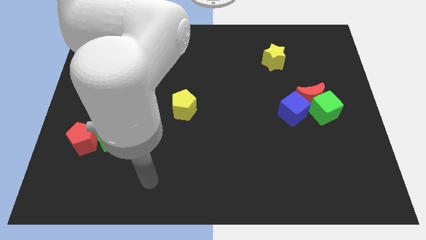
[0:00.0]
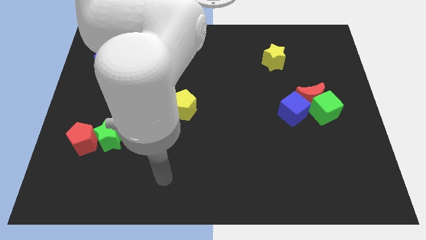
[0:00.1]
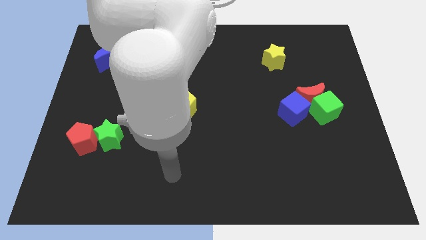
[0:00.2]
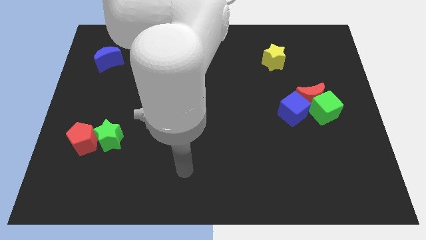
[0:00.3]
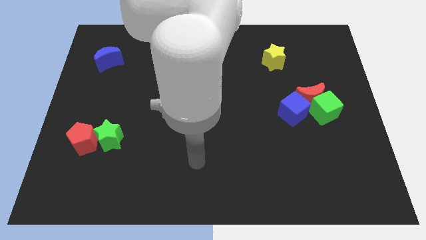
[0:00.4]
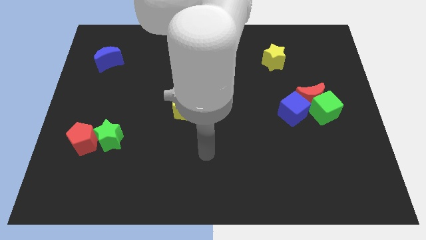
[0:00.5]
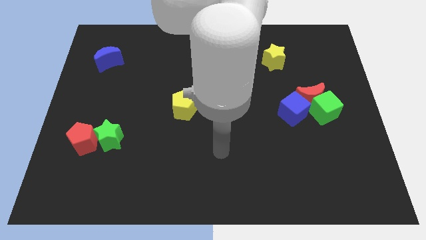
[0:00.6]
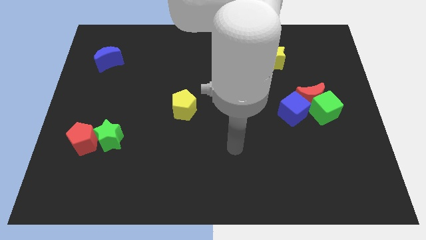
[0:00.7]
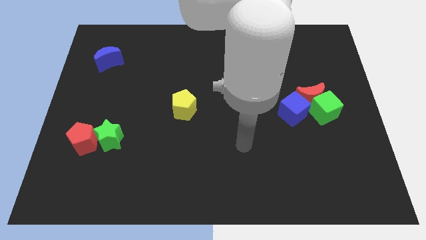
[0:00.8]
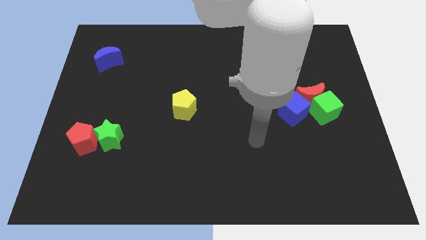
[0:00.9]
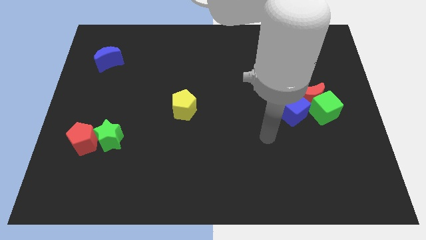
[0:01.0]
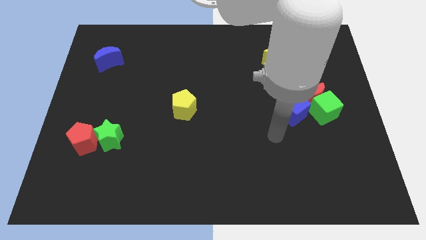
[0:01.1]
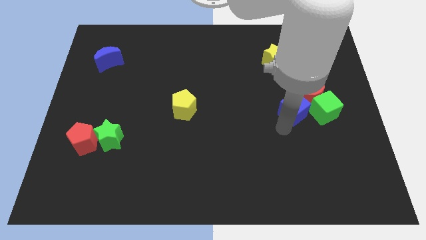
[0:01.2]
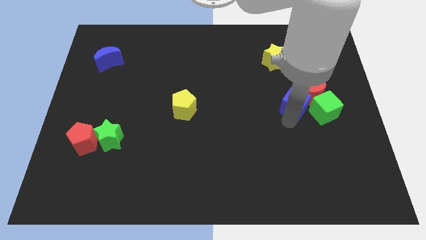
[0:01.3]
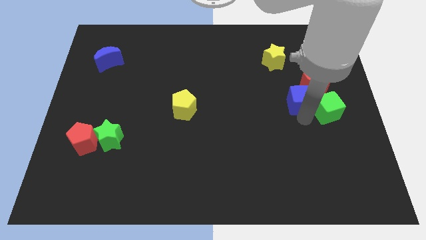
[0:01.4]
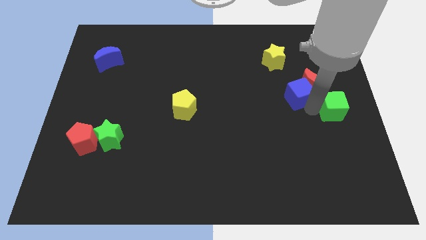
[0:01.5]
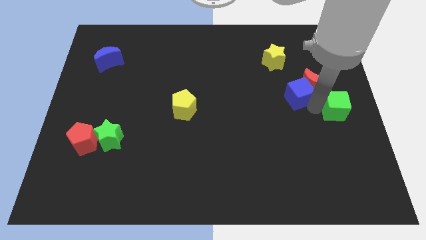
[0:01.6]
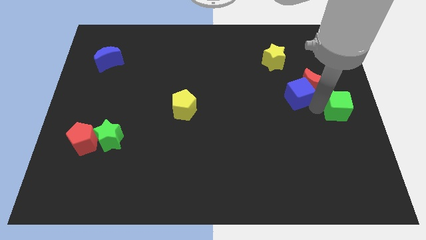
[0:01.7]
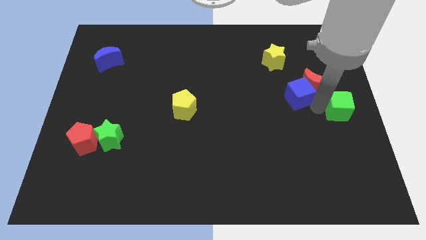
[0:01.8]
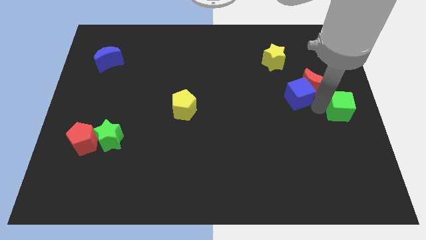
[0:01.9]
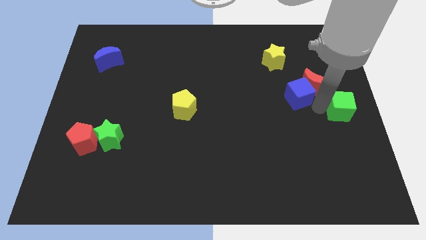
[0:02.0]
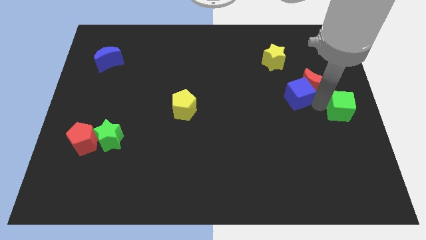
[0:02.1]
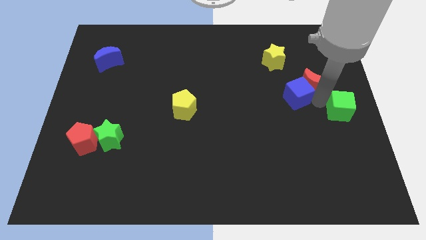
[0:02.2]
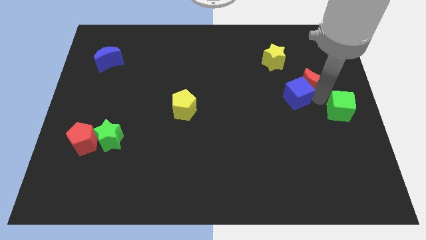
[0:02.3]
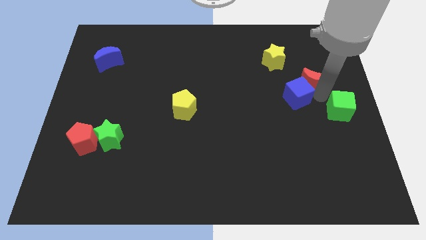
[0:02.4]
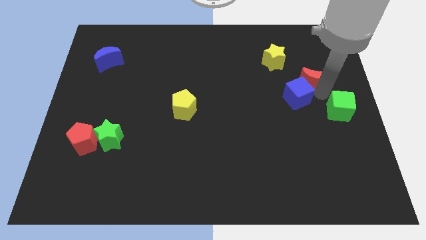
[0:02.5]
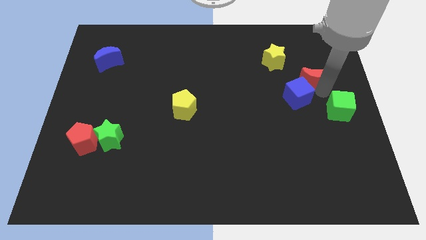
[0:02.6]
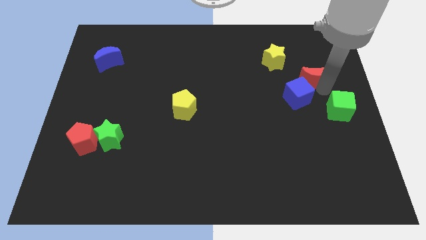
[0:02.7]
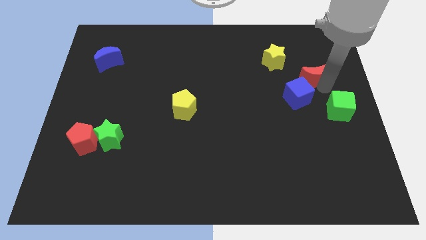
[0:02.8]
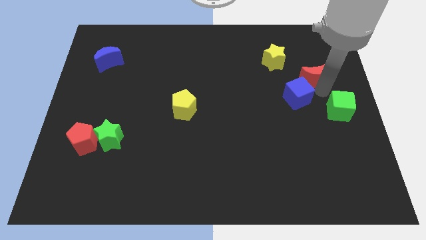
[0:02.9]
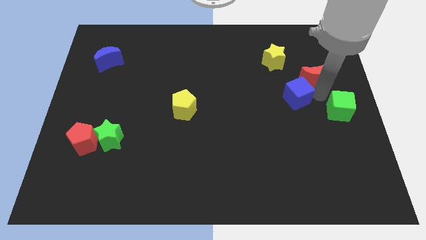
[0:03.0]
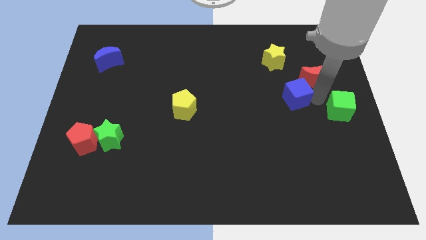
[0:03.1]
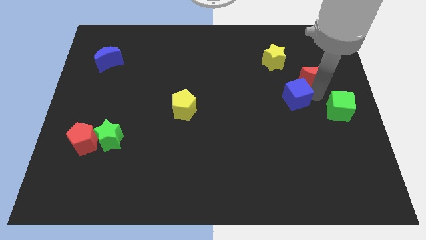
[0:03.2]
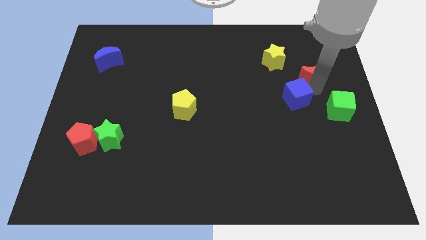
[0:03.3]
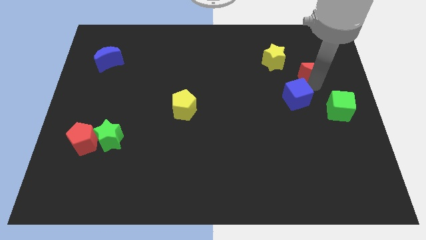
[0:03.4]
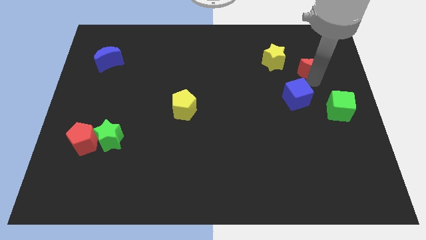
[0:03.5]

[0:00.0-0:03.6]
pull the red moon apart from the green cube and blue cube

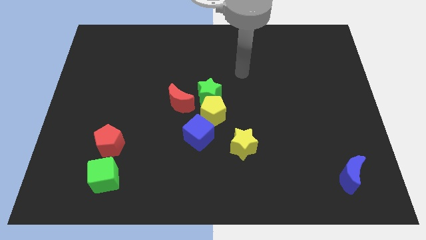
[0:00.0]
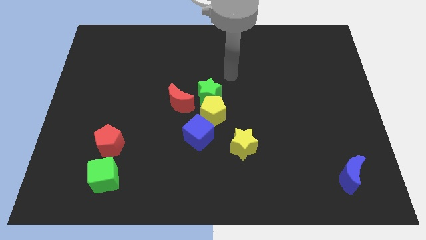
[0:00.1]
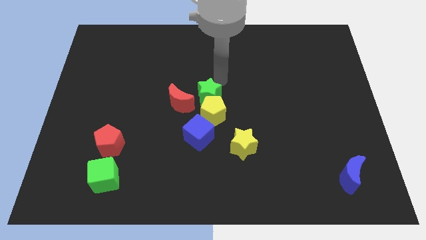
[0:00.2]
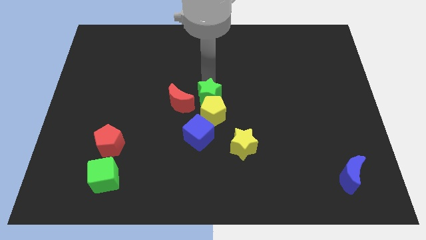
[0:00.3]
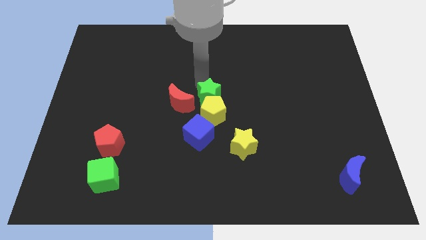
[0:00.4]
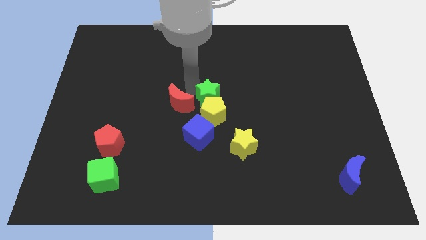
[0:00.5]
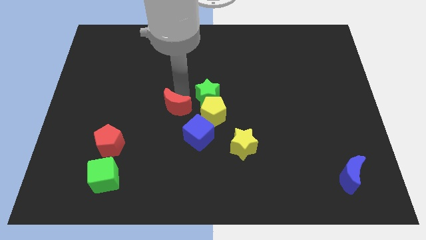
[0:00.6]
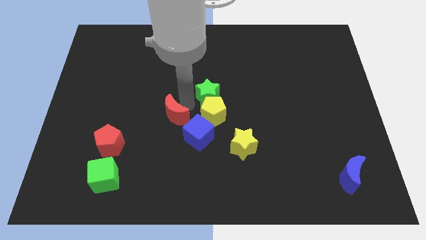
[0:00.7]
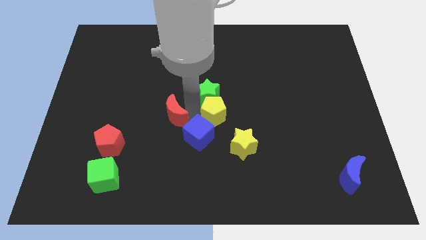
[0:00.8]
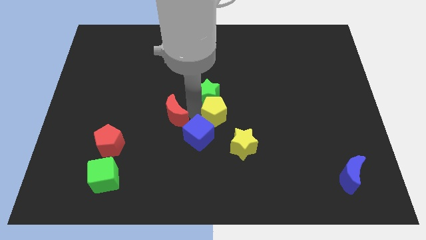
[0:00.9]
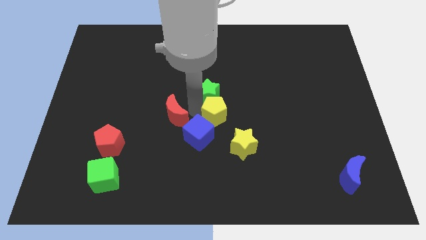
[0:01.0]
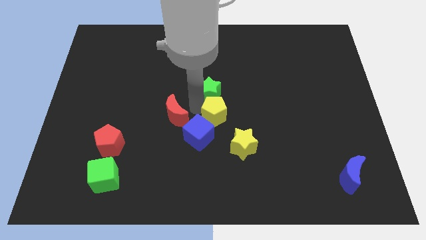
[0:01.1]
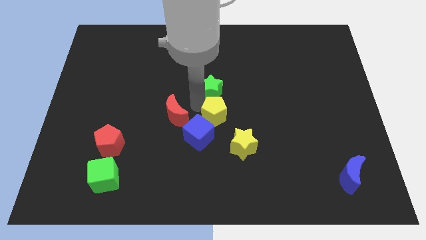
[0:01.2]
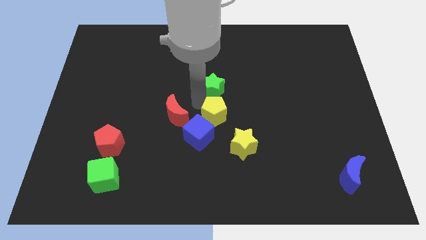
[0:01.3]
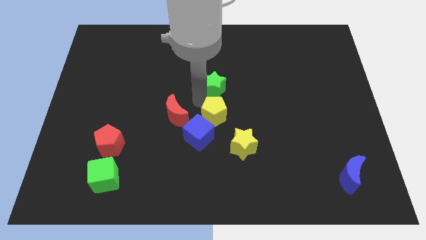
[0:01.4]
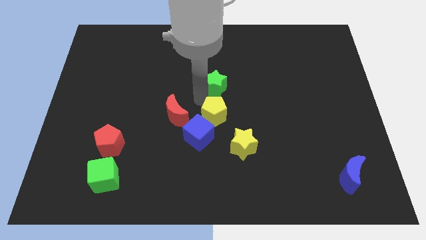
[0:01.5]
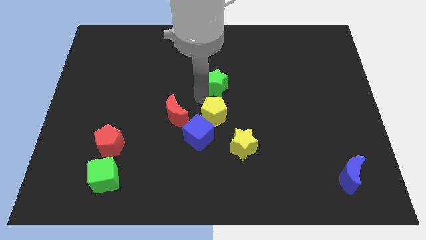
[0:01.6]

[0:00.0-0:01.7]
pull the green star apart from the yellow pentagon and red moon

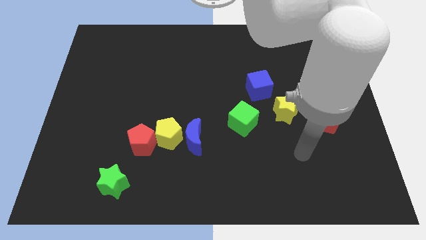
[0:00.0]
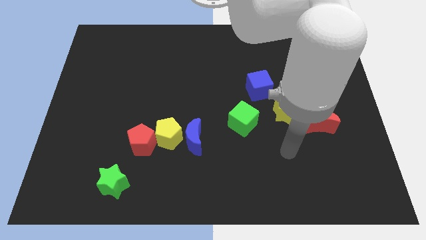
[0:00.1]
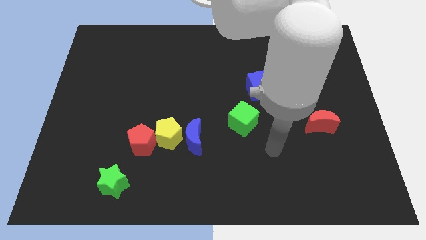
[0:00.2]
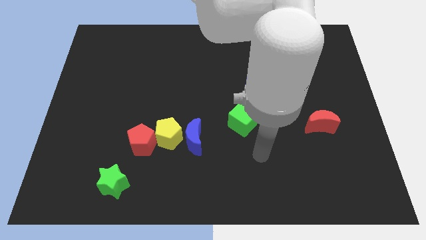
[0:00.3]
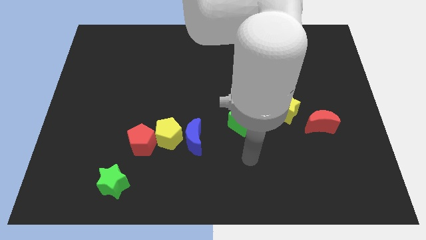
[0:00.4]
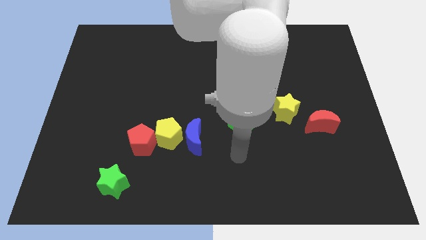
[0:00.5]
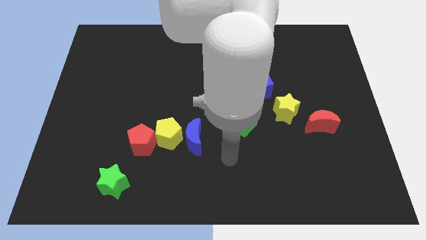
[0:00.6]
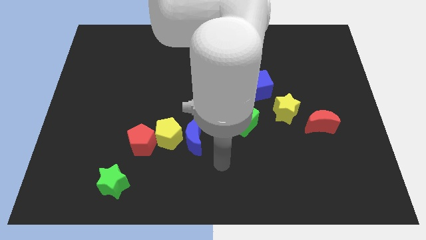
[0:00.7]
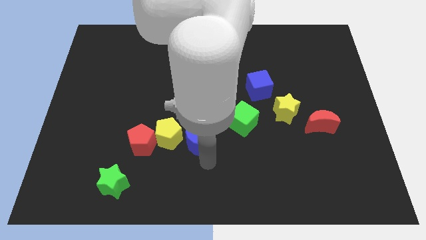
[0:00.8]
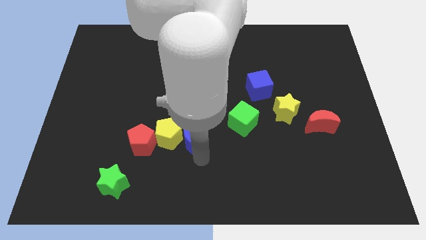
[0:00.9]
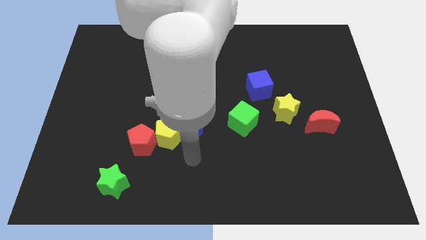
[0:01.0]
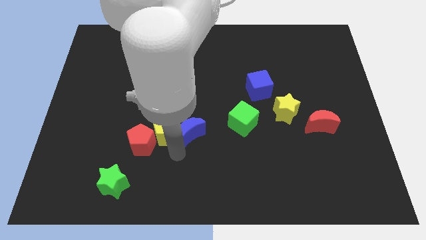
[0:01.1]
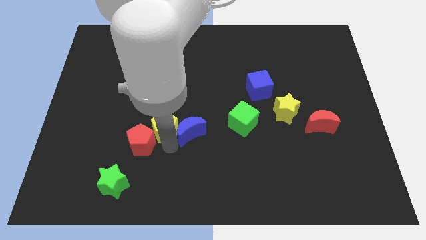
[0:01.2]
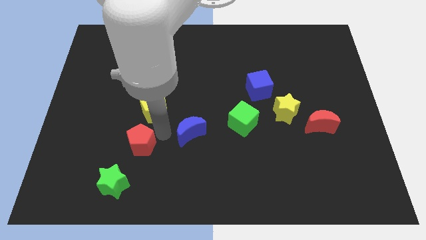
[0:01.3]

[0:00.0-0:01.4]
move the blue moon away from the yellow pentagon

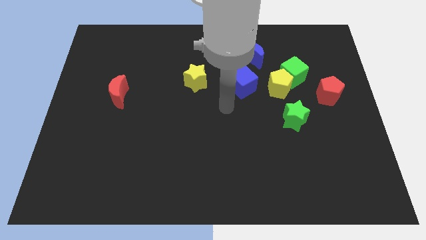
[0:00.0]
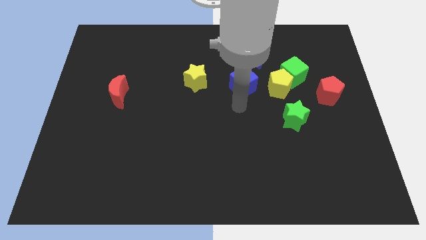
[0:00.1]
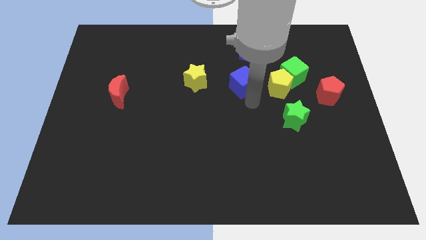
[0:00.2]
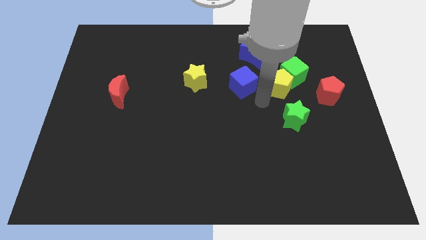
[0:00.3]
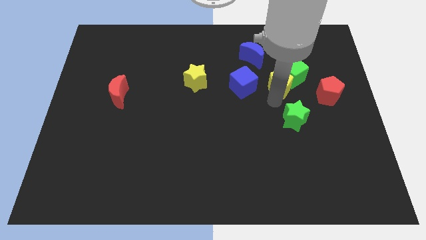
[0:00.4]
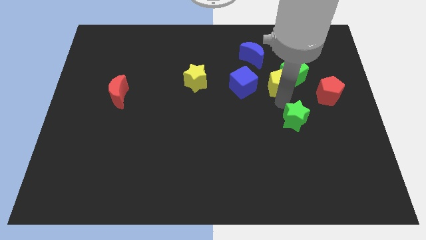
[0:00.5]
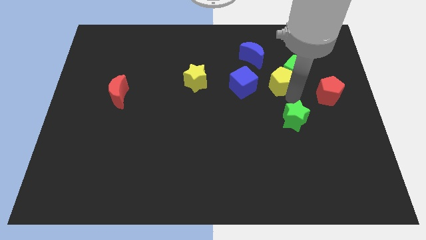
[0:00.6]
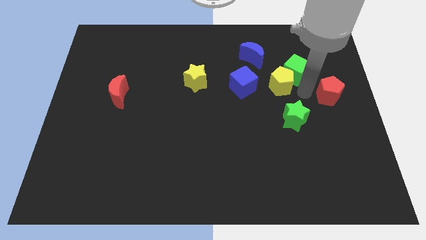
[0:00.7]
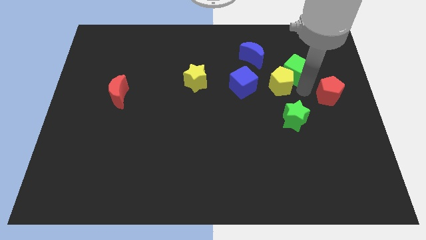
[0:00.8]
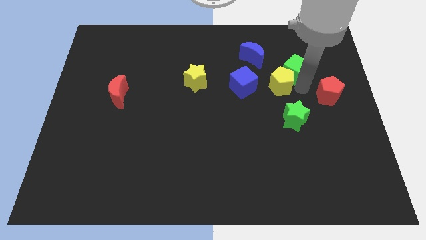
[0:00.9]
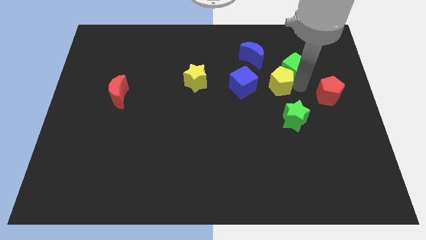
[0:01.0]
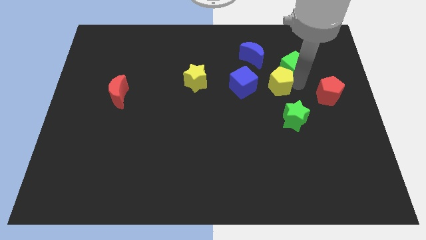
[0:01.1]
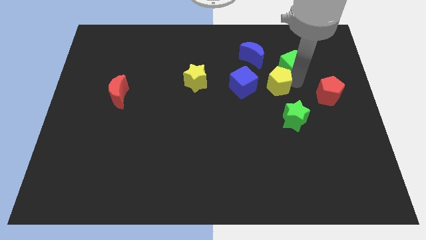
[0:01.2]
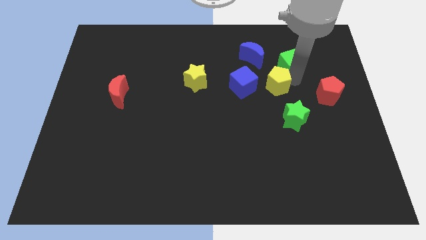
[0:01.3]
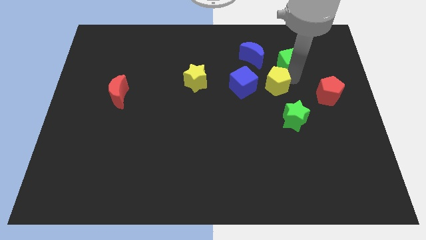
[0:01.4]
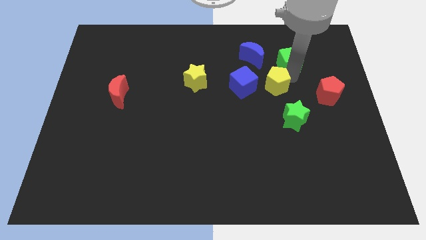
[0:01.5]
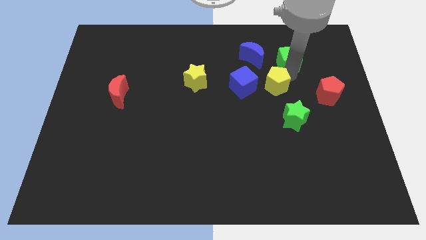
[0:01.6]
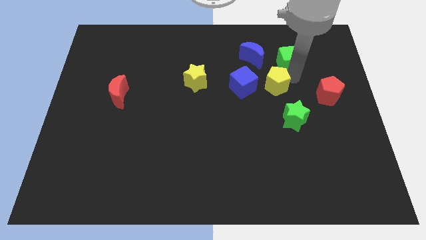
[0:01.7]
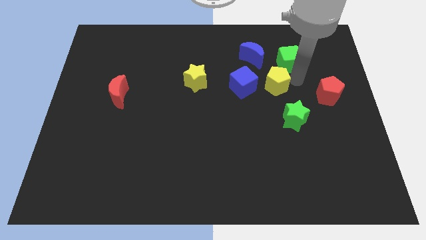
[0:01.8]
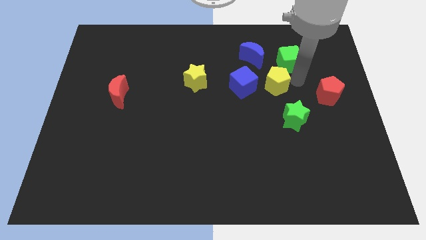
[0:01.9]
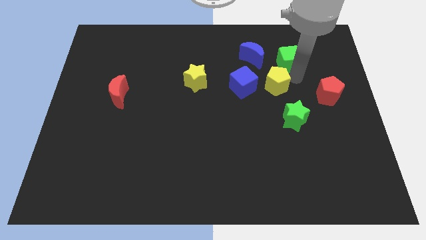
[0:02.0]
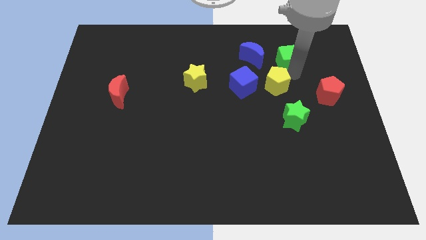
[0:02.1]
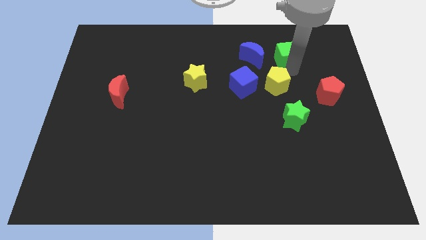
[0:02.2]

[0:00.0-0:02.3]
move the green cube away from the yellow pentagon and red pentagon

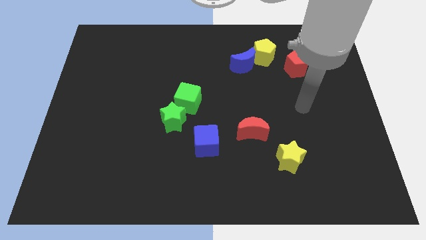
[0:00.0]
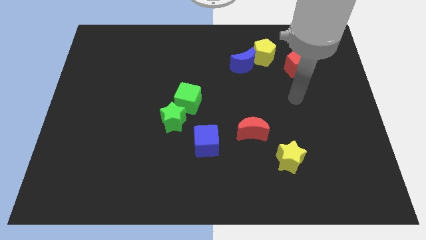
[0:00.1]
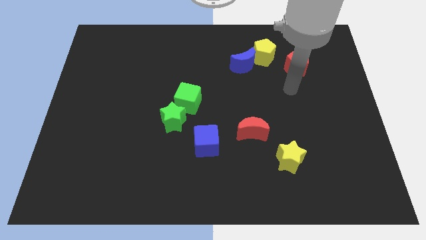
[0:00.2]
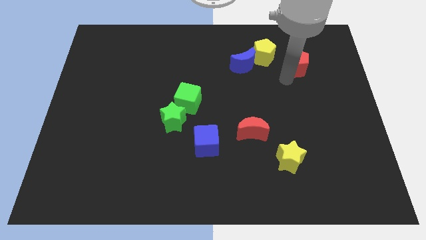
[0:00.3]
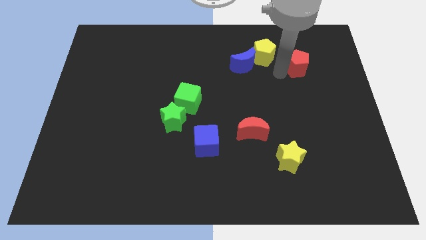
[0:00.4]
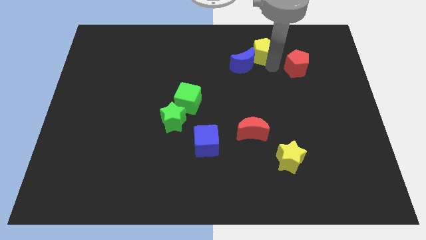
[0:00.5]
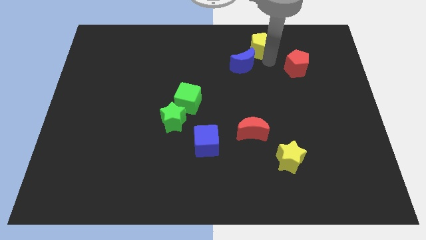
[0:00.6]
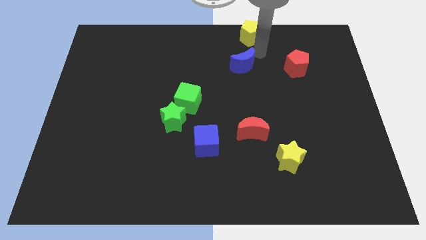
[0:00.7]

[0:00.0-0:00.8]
separate the blue moon from the yellow pentagon
